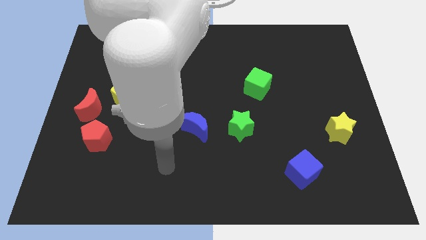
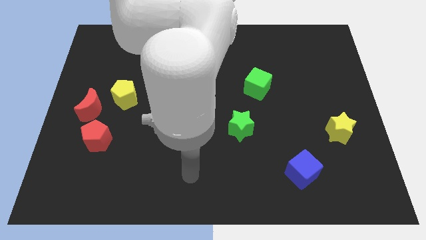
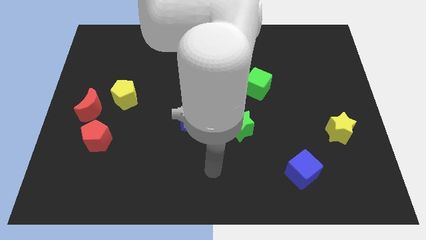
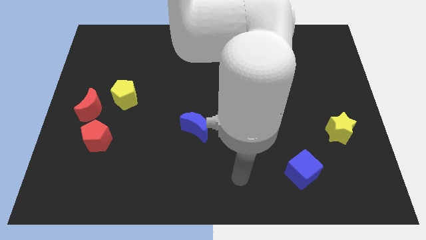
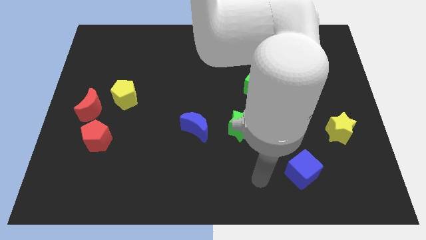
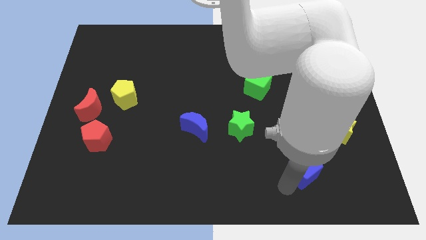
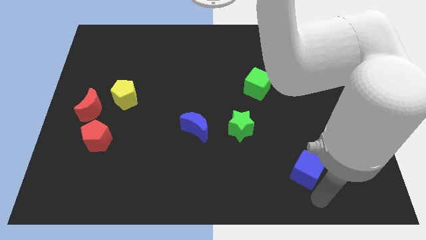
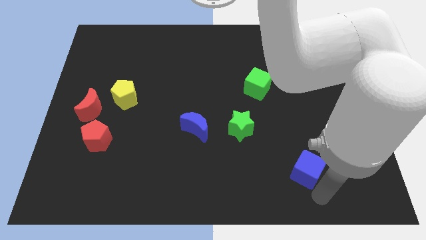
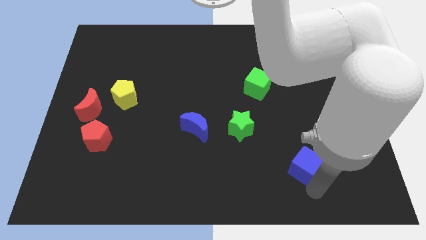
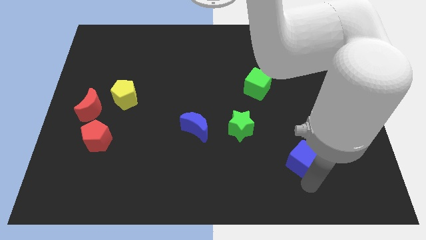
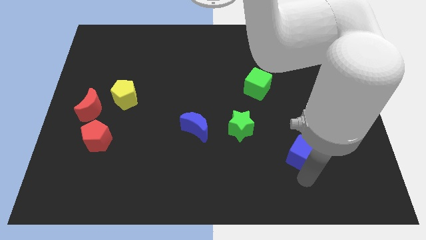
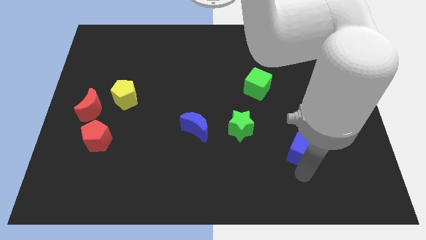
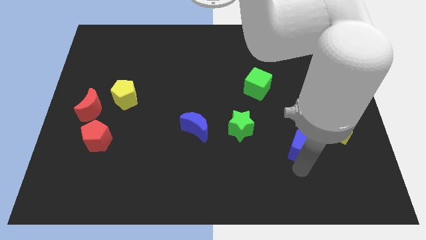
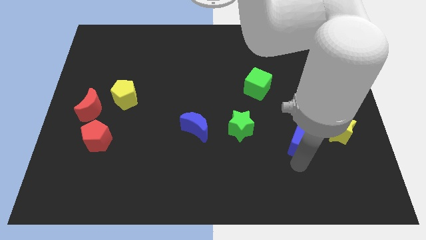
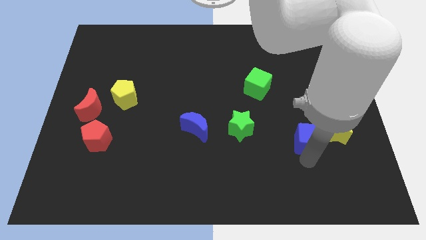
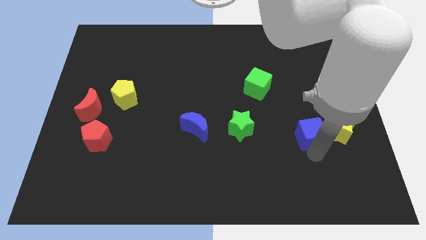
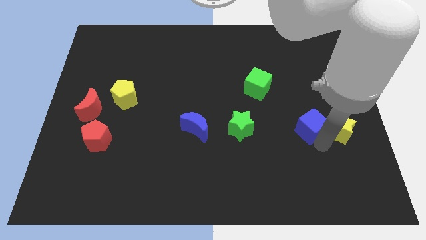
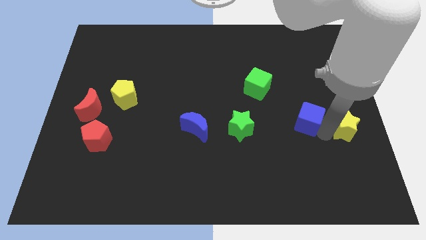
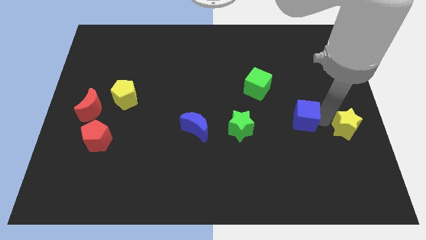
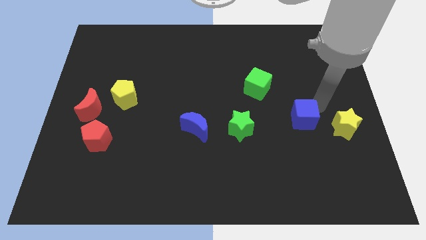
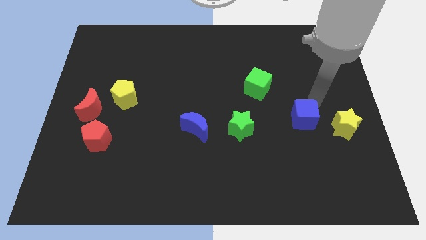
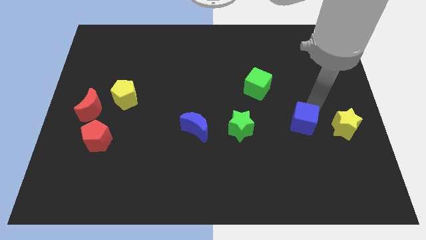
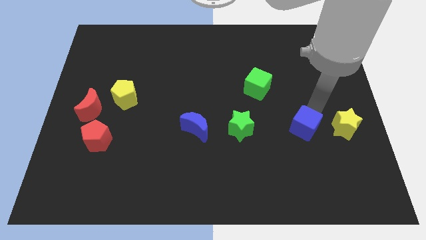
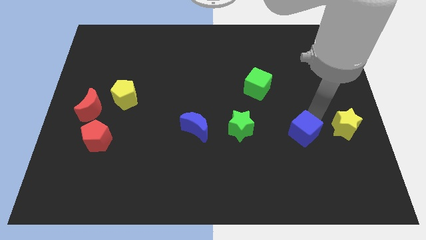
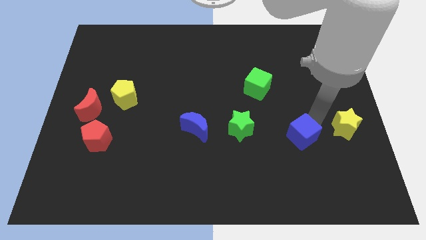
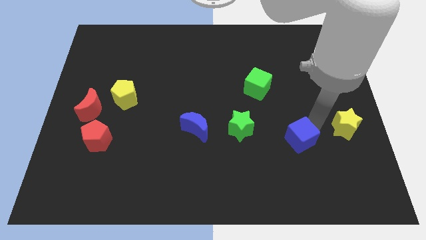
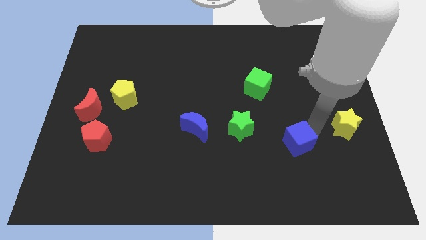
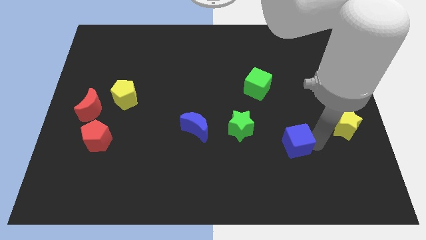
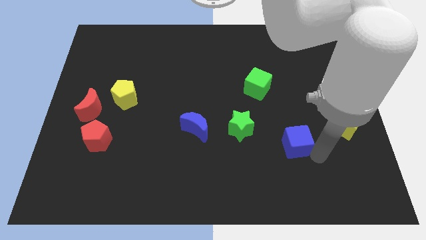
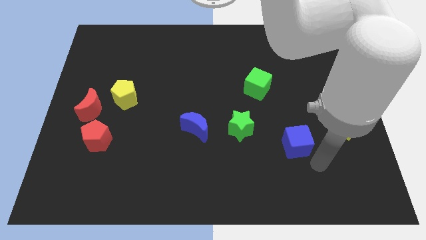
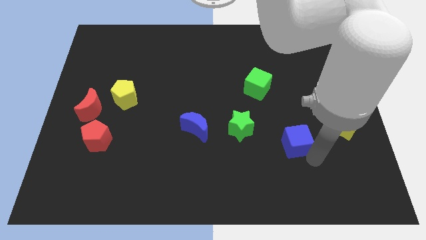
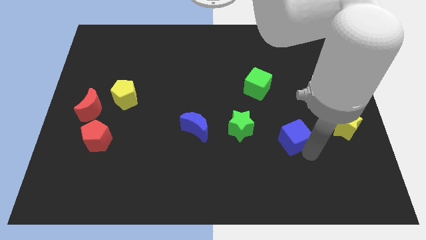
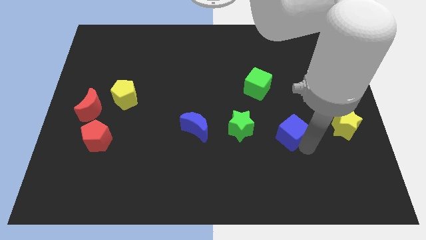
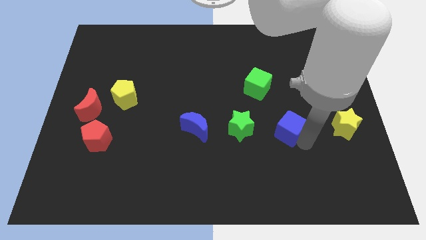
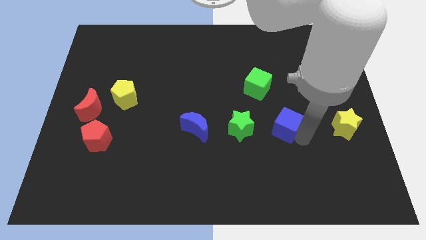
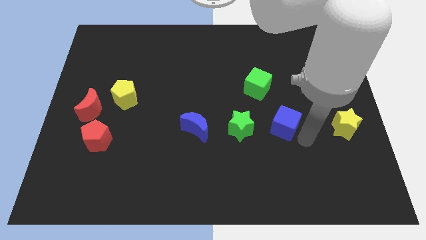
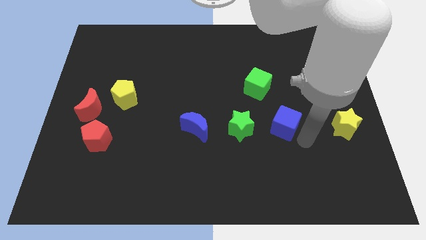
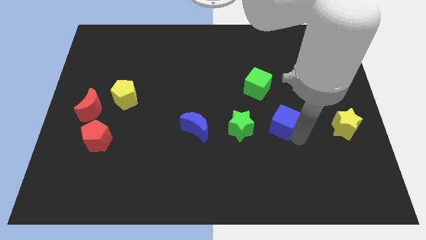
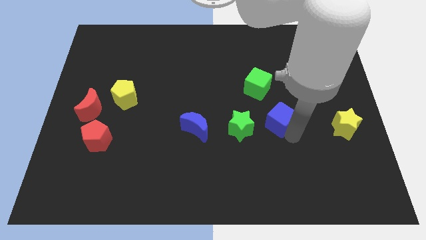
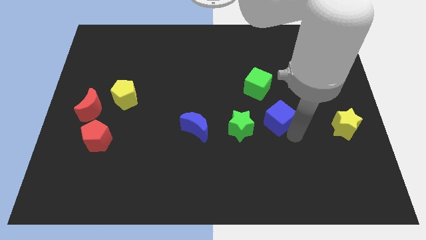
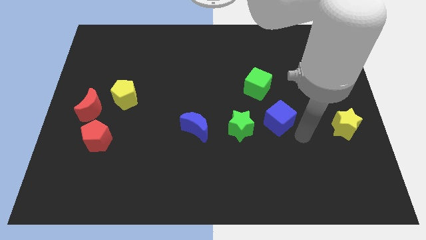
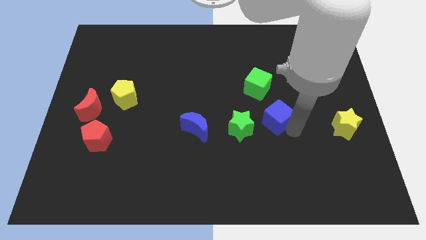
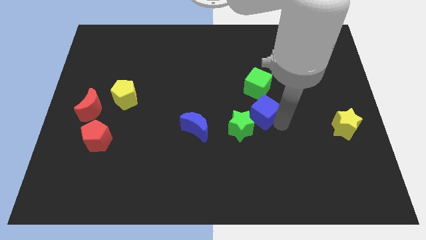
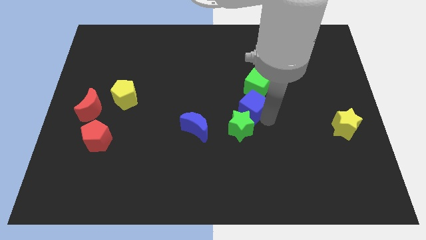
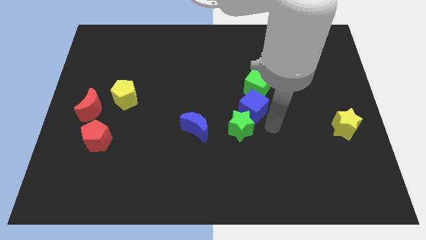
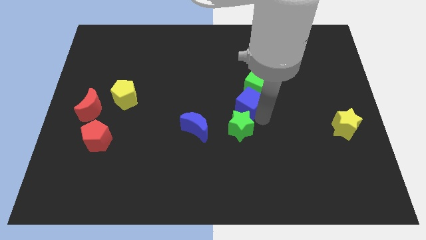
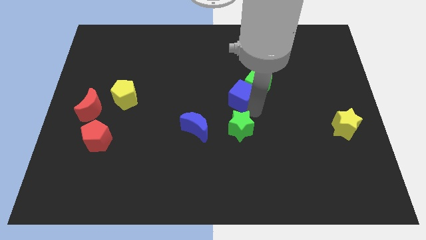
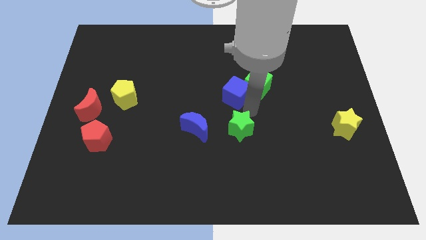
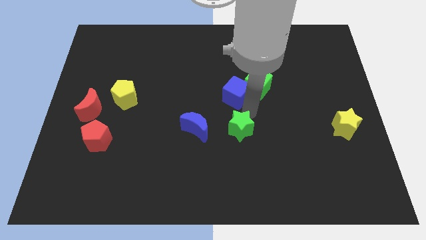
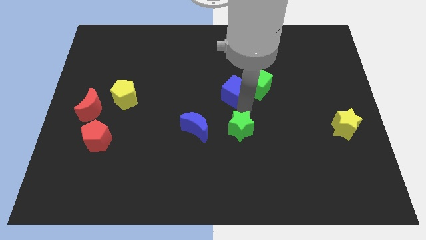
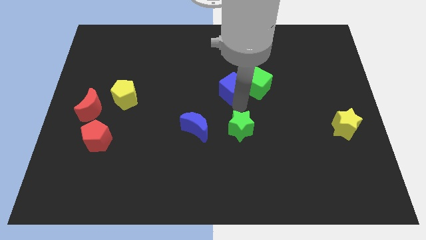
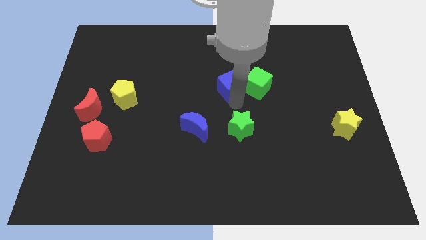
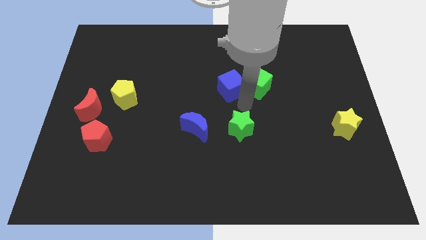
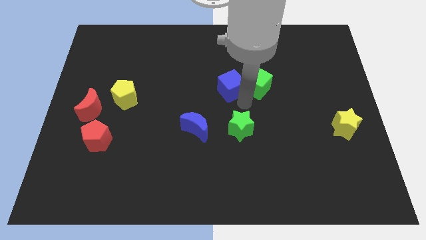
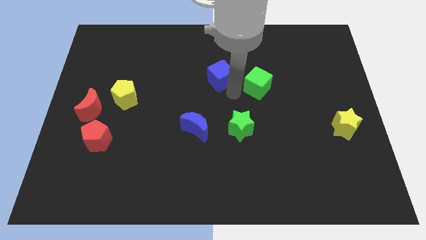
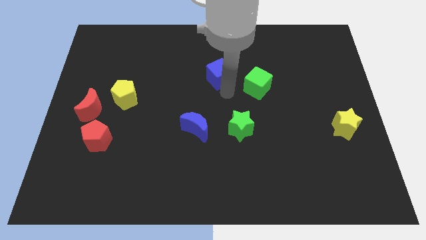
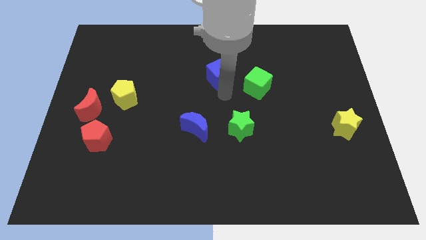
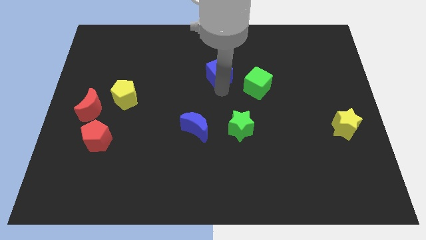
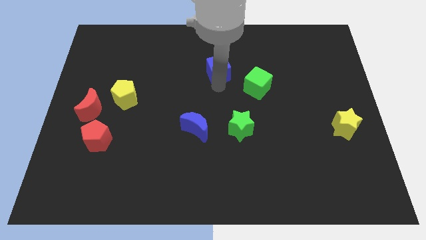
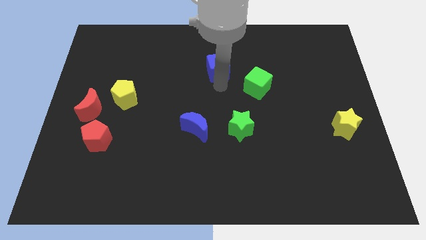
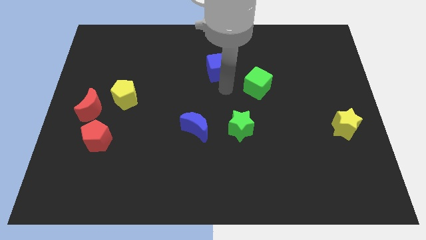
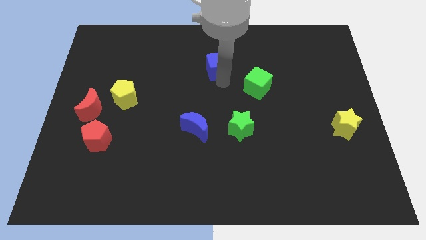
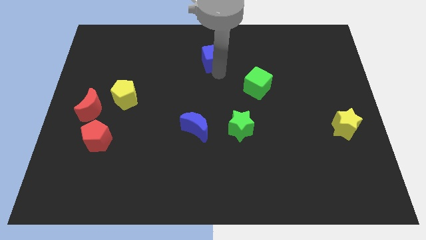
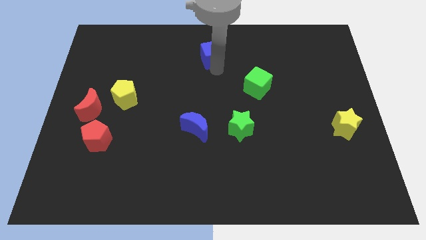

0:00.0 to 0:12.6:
push the blue cube to the top side
